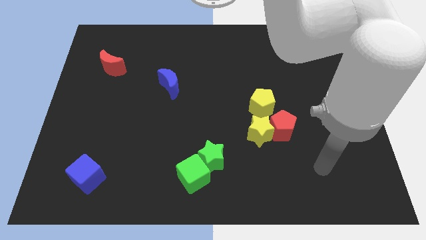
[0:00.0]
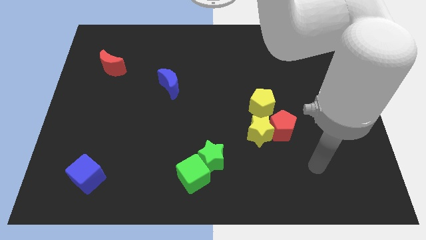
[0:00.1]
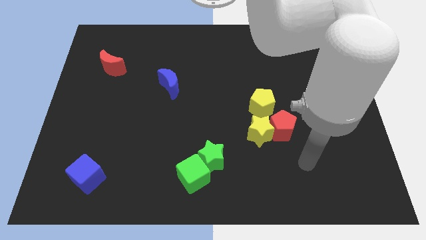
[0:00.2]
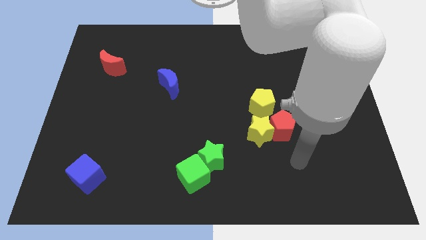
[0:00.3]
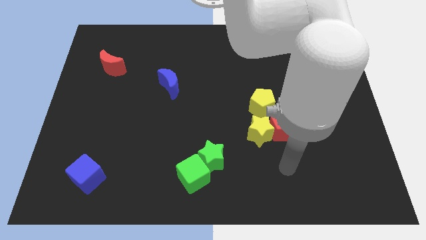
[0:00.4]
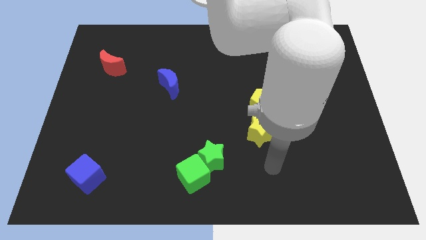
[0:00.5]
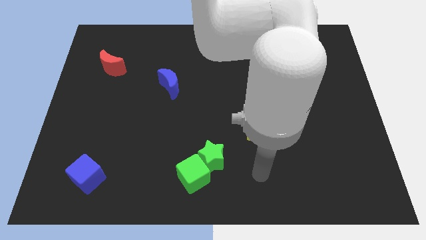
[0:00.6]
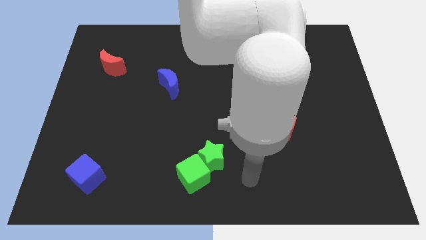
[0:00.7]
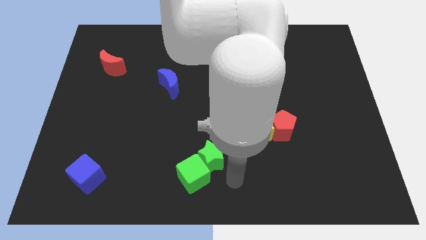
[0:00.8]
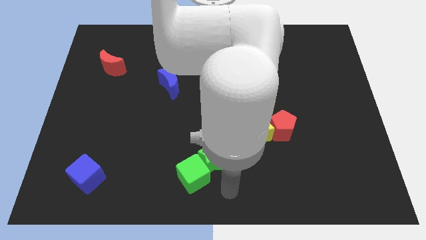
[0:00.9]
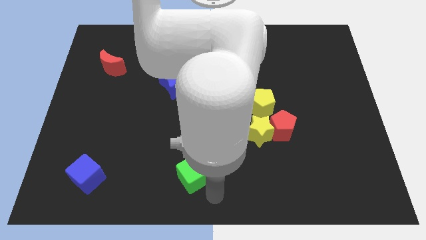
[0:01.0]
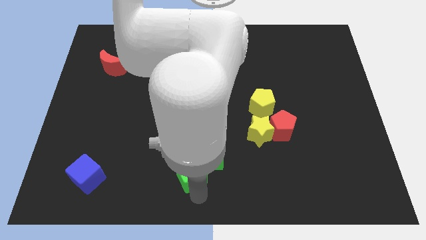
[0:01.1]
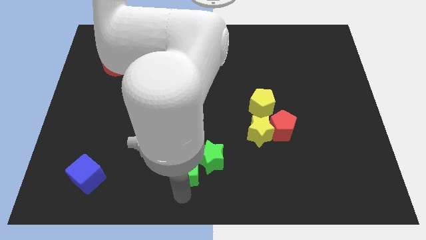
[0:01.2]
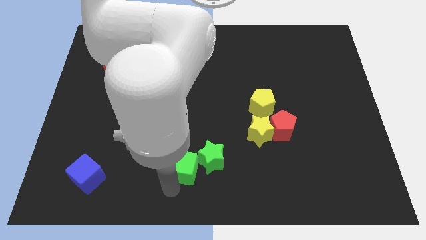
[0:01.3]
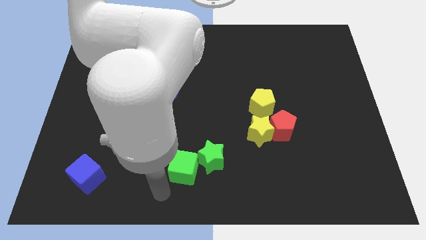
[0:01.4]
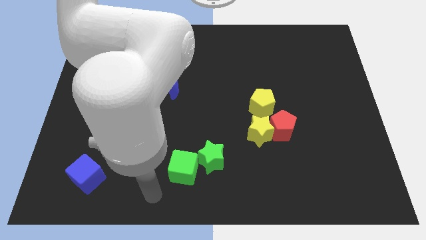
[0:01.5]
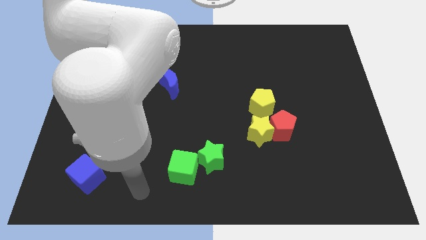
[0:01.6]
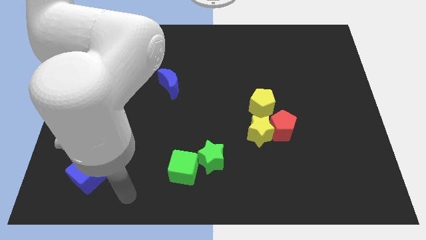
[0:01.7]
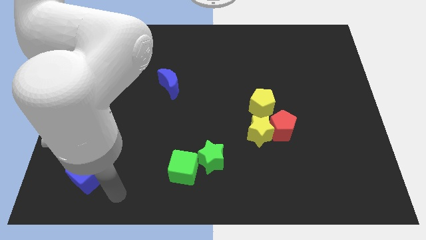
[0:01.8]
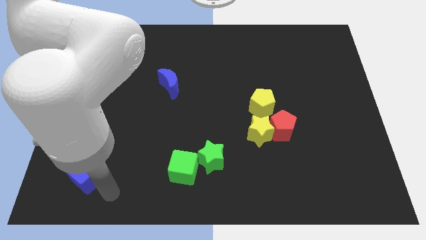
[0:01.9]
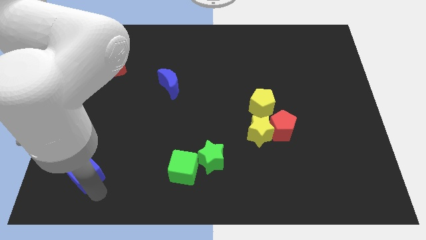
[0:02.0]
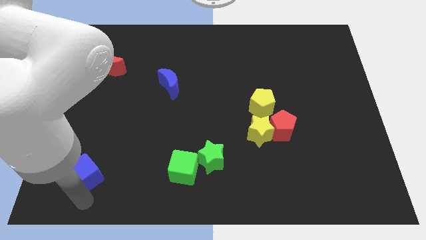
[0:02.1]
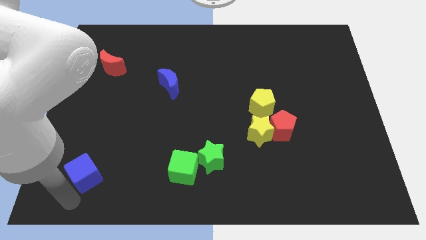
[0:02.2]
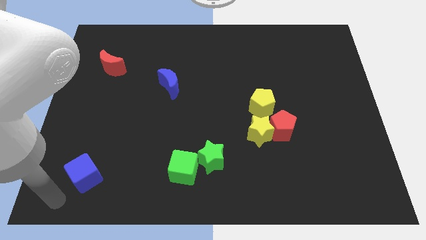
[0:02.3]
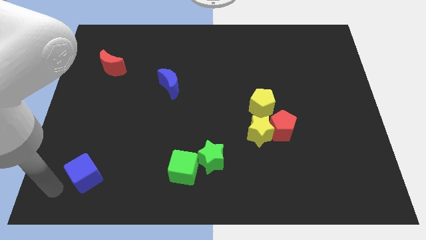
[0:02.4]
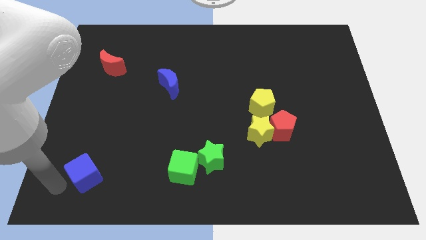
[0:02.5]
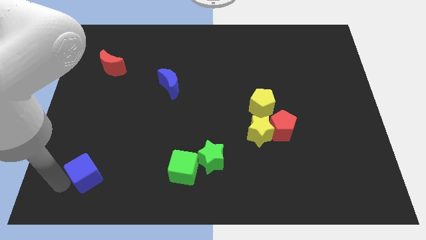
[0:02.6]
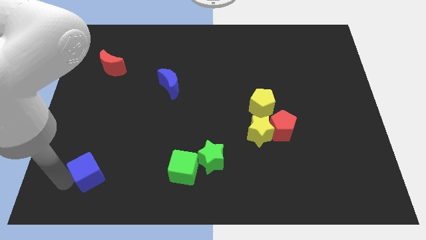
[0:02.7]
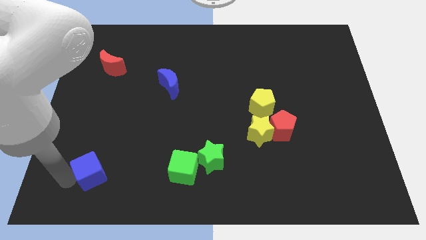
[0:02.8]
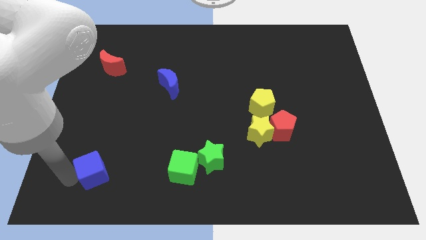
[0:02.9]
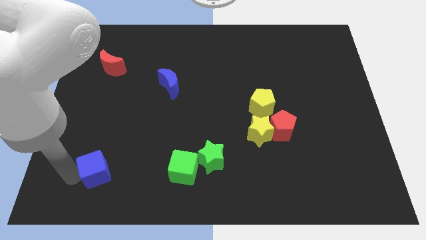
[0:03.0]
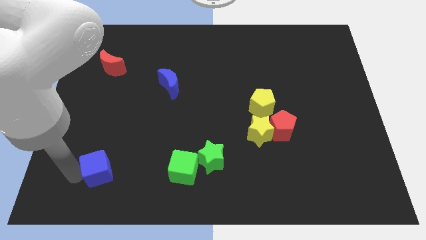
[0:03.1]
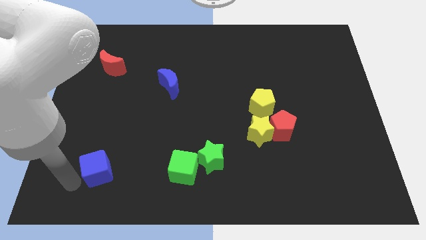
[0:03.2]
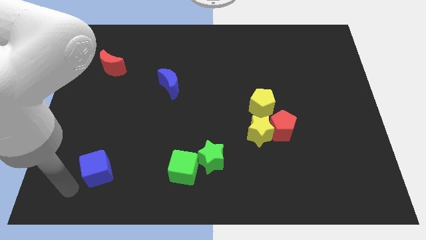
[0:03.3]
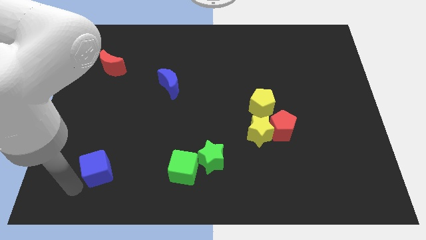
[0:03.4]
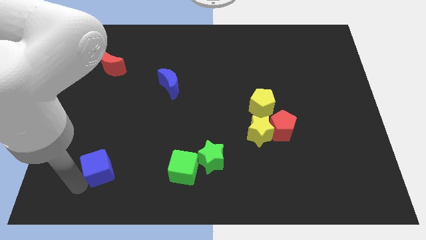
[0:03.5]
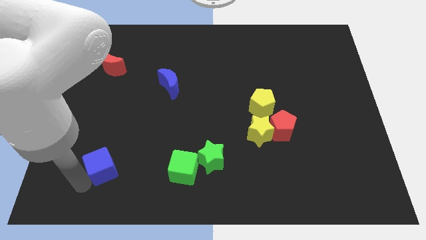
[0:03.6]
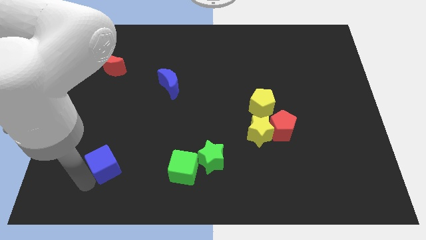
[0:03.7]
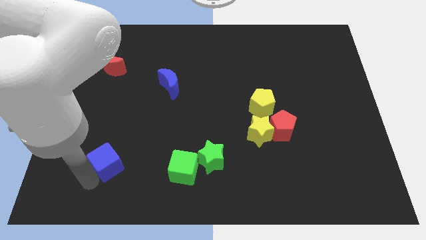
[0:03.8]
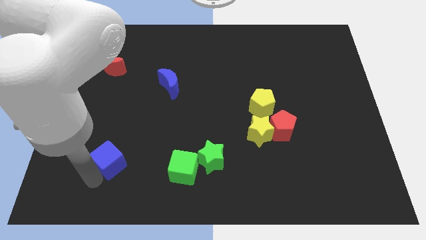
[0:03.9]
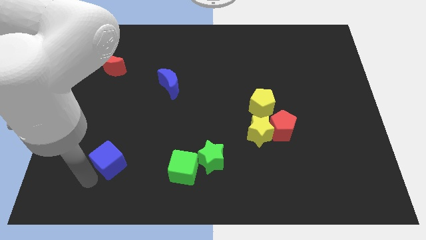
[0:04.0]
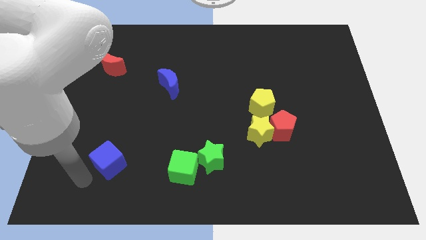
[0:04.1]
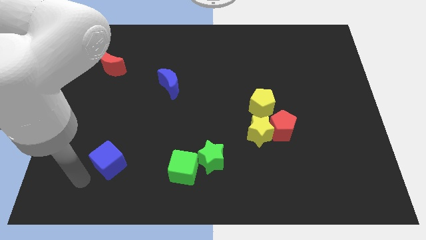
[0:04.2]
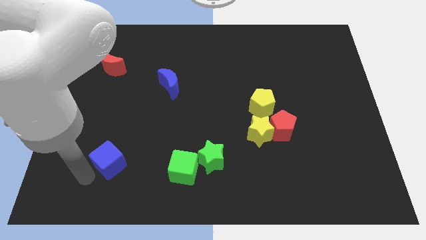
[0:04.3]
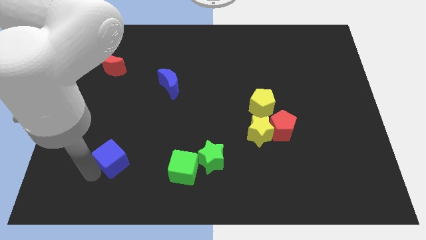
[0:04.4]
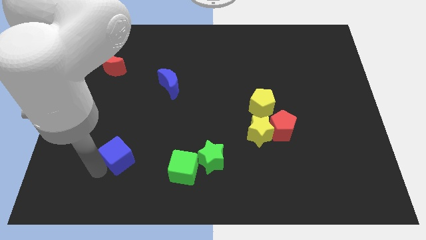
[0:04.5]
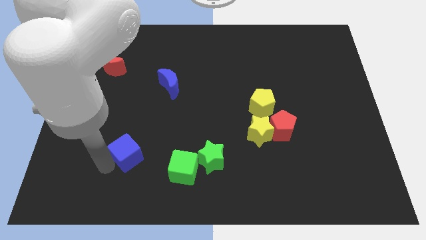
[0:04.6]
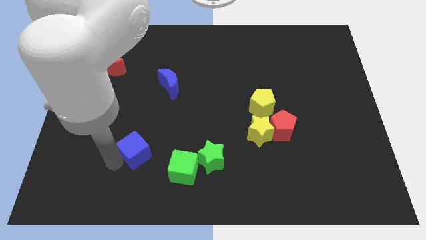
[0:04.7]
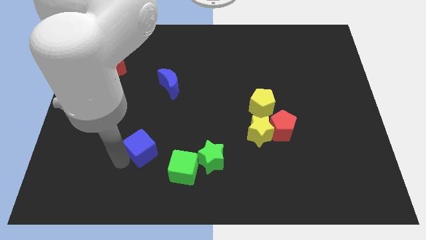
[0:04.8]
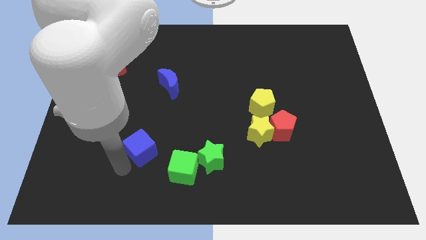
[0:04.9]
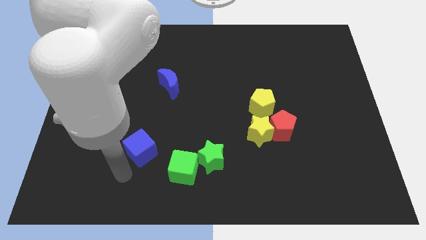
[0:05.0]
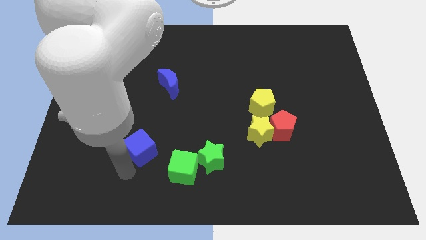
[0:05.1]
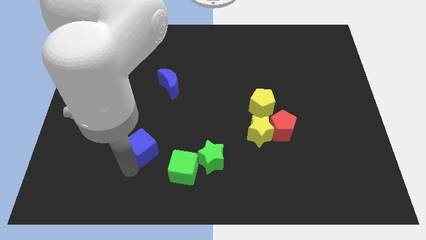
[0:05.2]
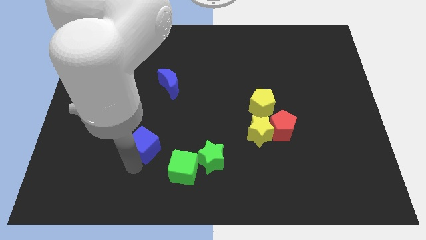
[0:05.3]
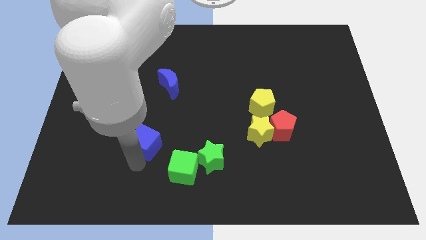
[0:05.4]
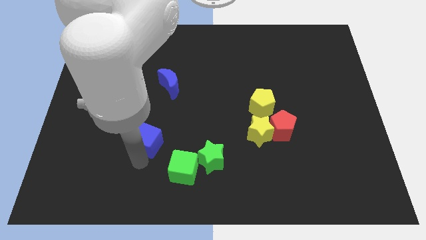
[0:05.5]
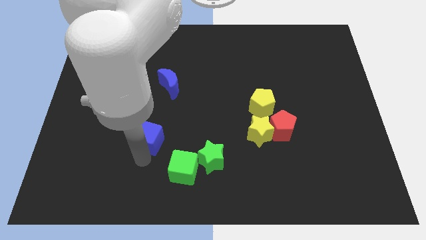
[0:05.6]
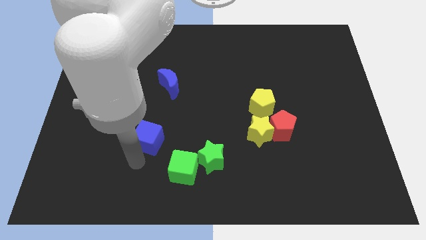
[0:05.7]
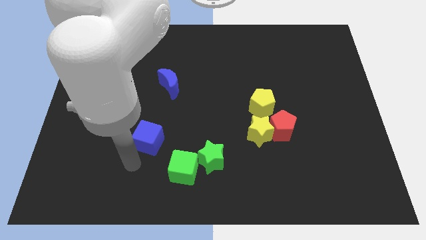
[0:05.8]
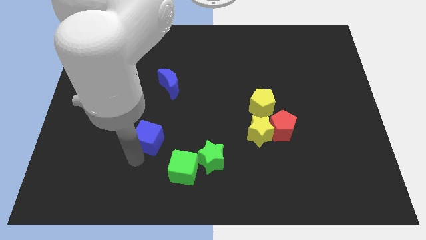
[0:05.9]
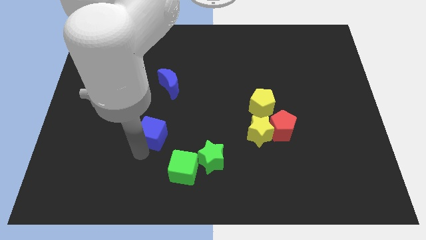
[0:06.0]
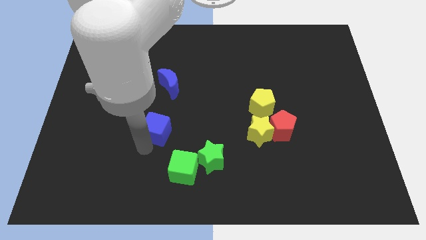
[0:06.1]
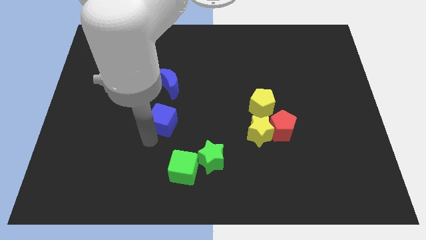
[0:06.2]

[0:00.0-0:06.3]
slide the blue cube up and then right

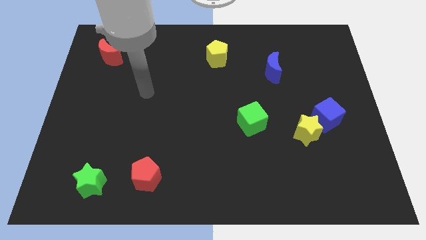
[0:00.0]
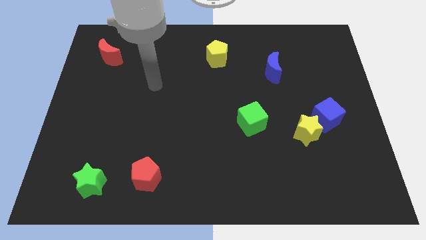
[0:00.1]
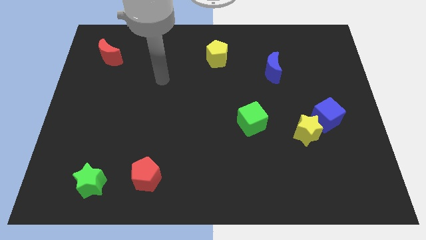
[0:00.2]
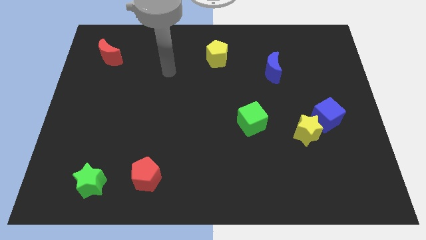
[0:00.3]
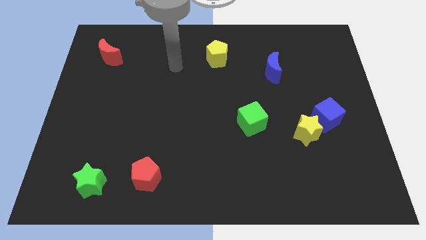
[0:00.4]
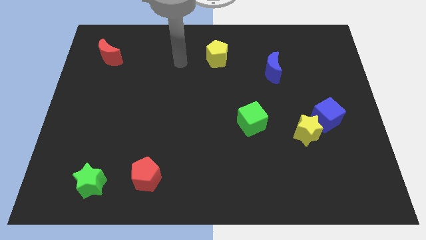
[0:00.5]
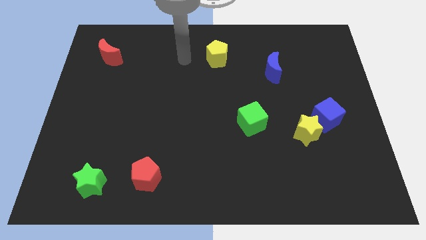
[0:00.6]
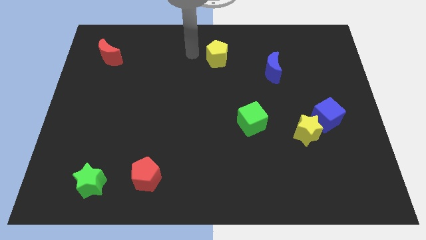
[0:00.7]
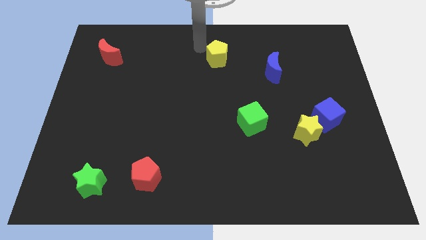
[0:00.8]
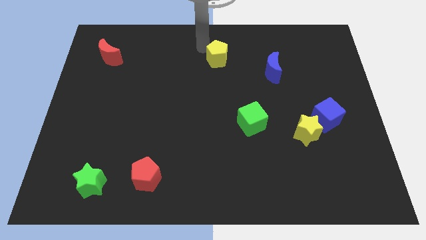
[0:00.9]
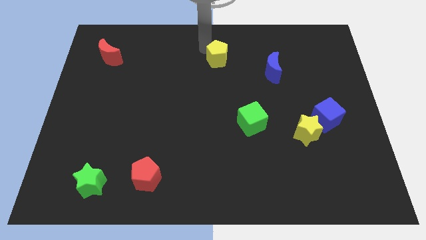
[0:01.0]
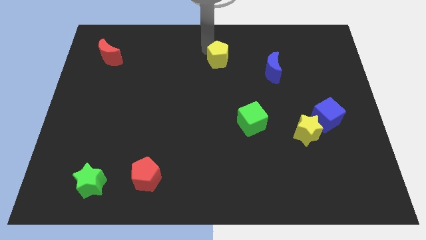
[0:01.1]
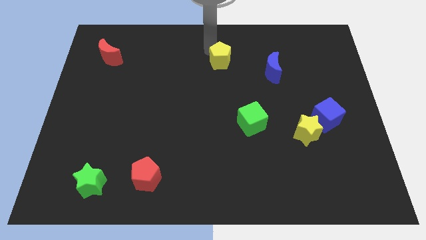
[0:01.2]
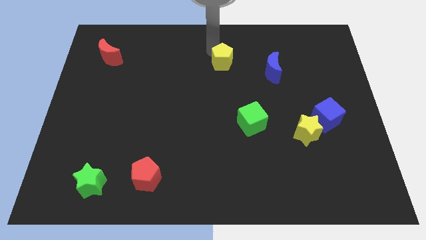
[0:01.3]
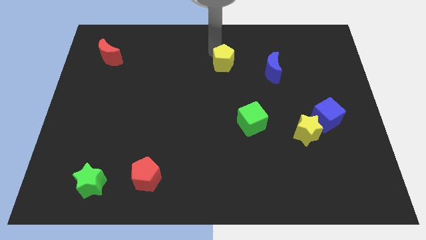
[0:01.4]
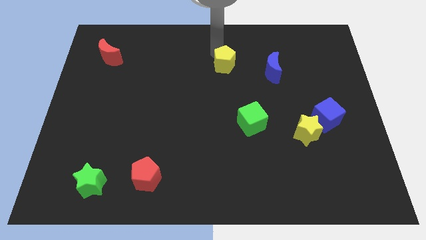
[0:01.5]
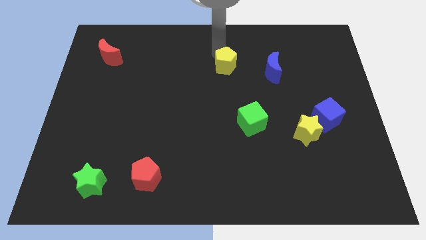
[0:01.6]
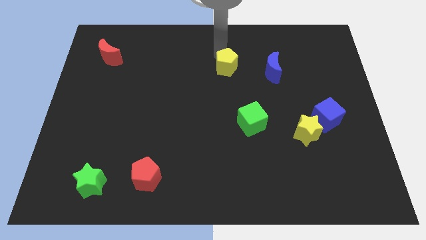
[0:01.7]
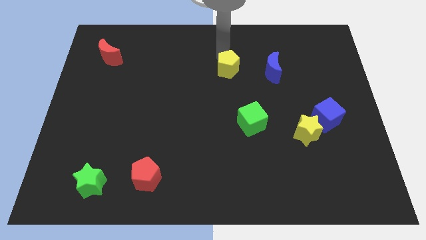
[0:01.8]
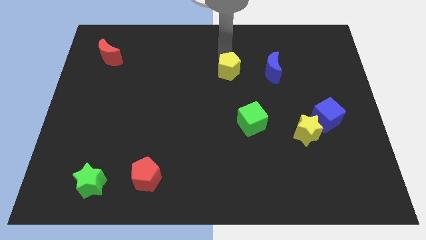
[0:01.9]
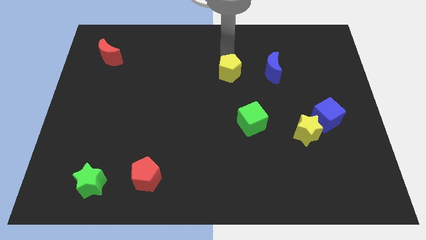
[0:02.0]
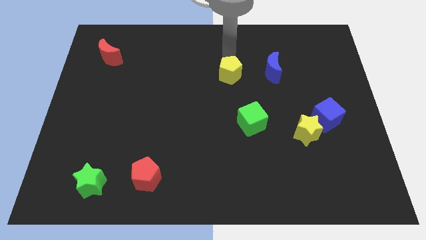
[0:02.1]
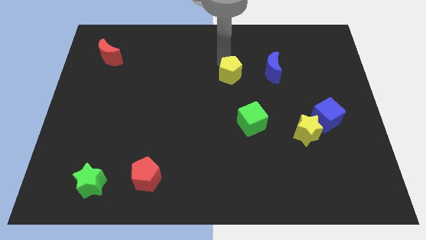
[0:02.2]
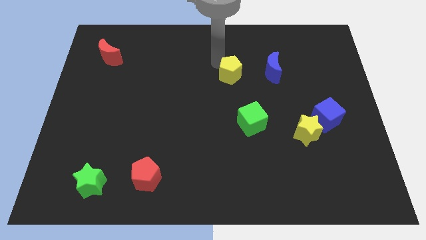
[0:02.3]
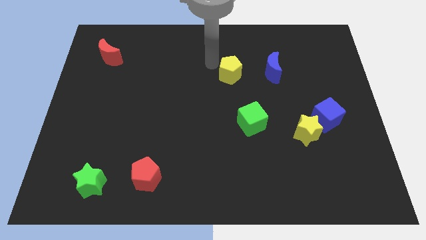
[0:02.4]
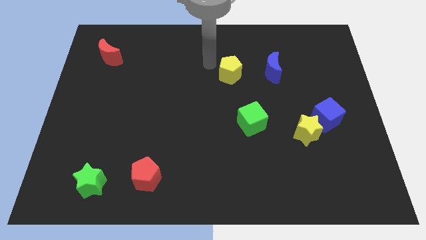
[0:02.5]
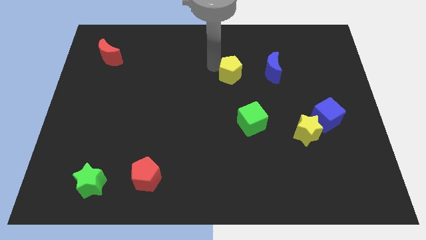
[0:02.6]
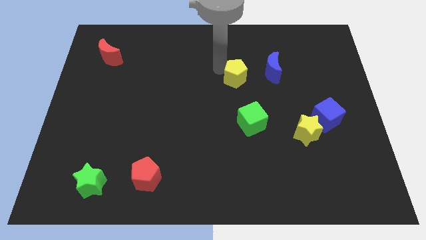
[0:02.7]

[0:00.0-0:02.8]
slightly slide the yellow pentagon down and to the right diagonally
